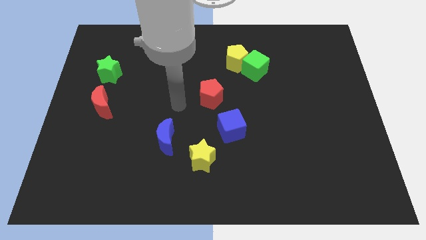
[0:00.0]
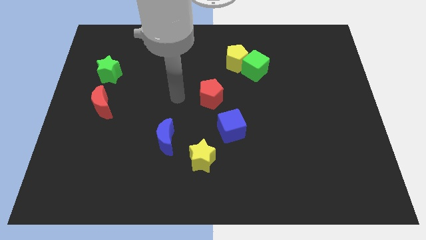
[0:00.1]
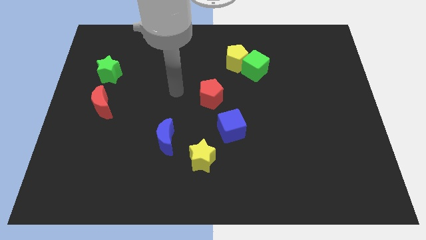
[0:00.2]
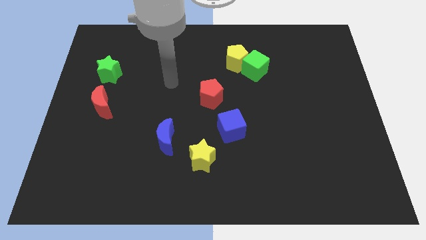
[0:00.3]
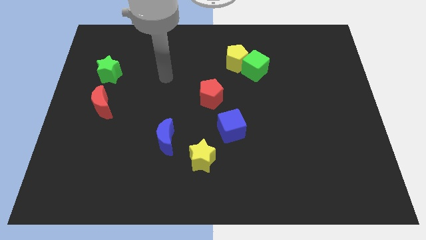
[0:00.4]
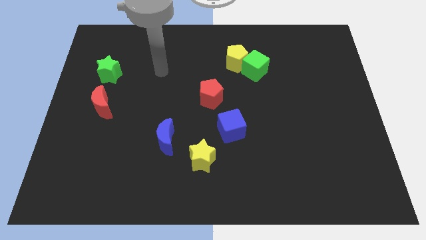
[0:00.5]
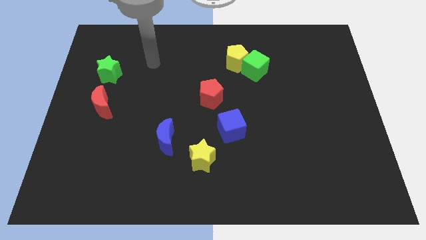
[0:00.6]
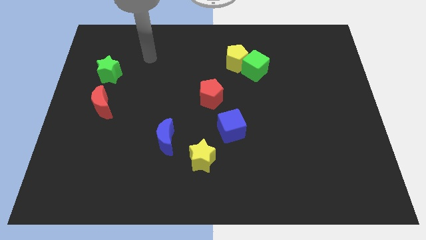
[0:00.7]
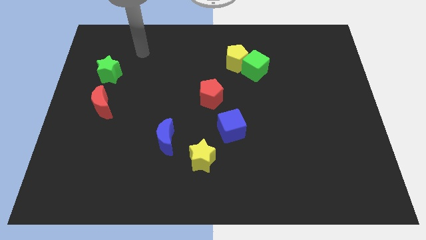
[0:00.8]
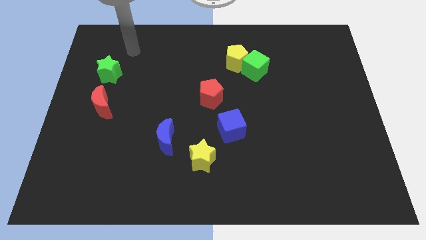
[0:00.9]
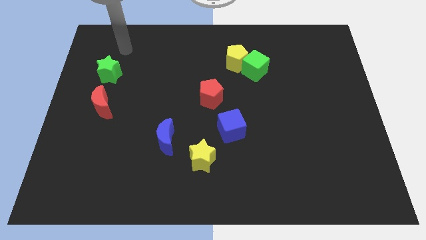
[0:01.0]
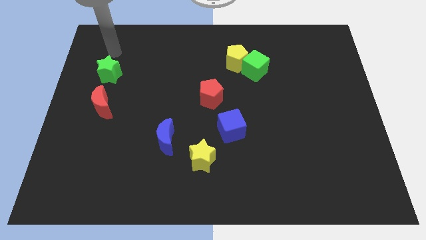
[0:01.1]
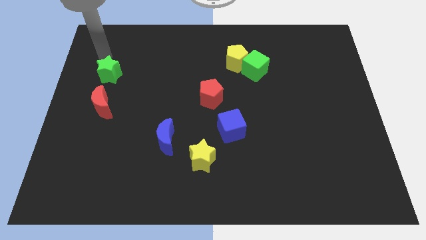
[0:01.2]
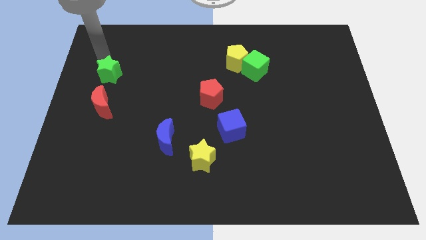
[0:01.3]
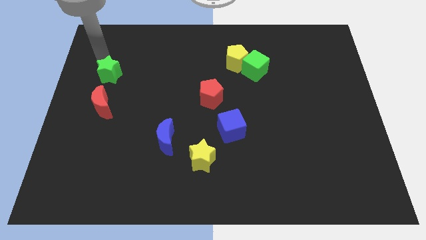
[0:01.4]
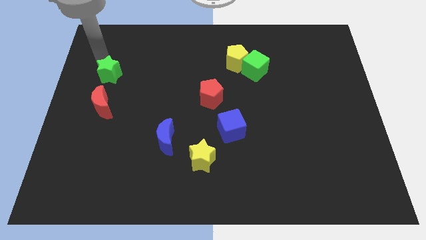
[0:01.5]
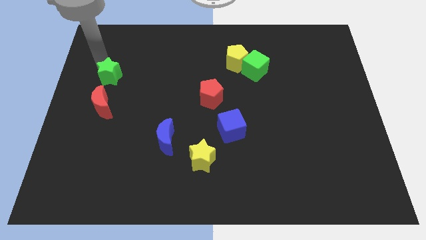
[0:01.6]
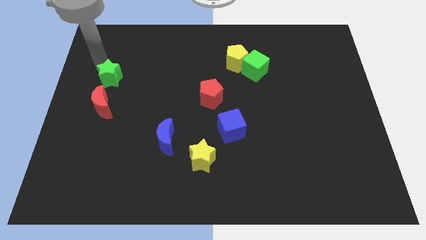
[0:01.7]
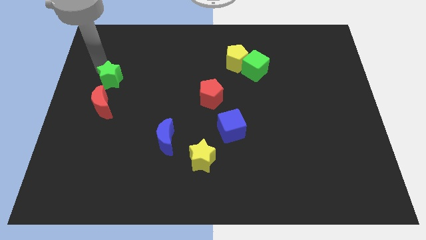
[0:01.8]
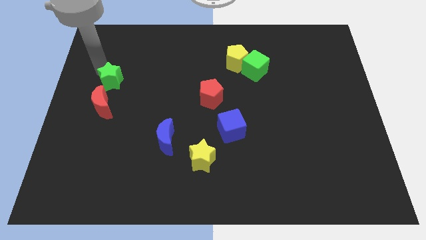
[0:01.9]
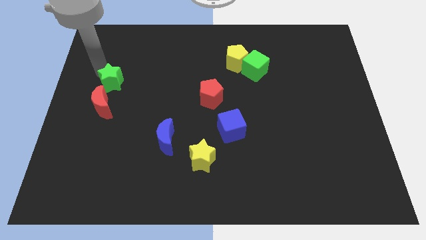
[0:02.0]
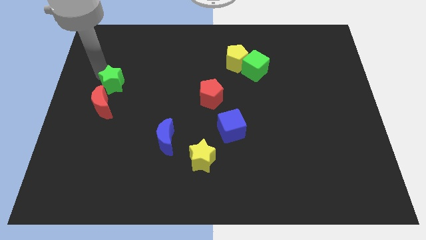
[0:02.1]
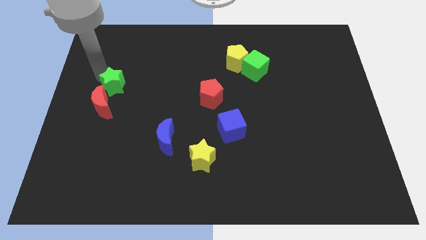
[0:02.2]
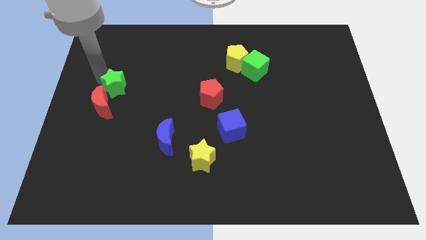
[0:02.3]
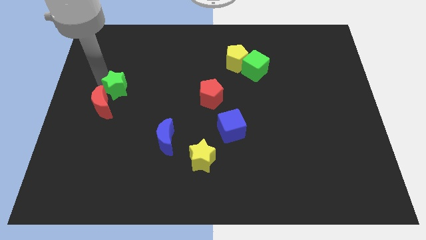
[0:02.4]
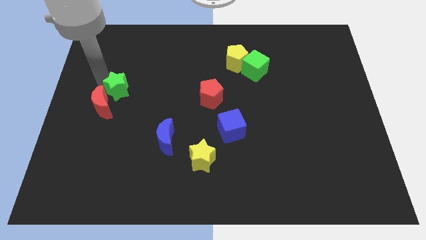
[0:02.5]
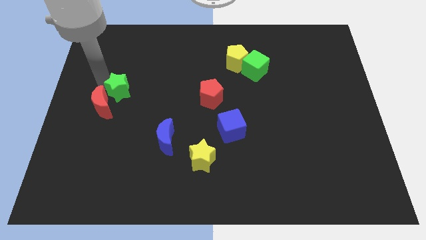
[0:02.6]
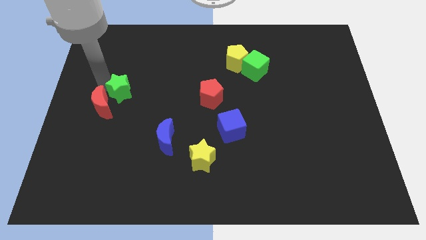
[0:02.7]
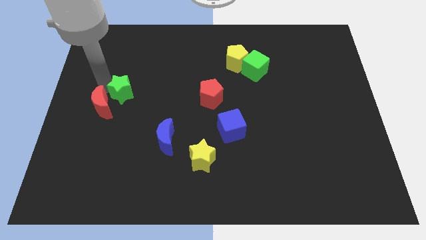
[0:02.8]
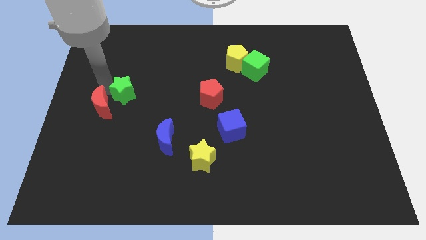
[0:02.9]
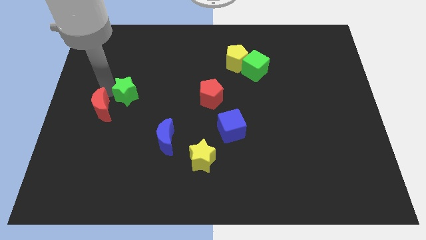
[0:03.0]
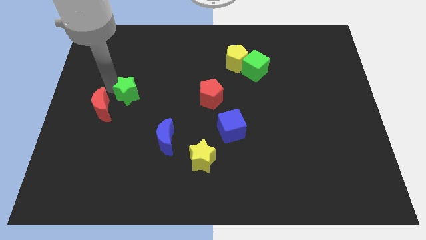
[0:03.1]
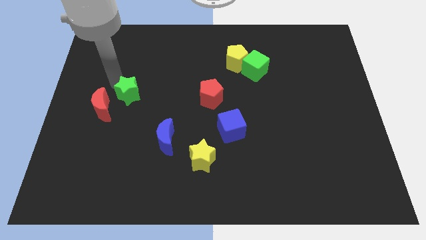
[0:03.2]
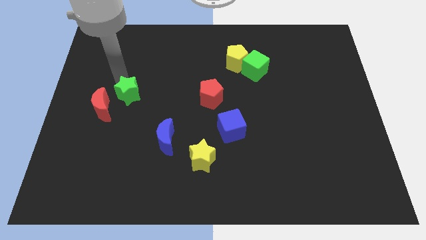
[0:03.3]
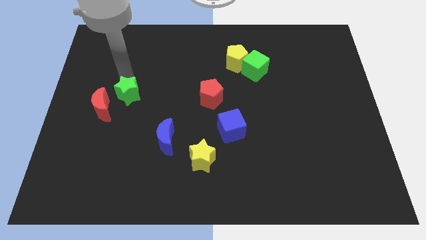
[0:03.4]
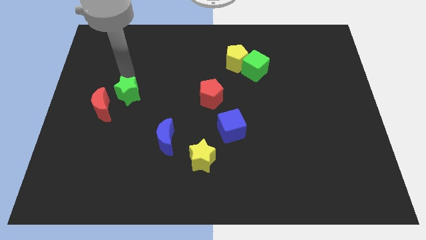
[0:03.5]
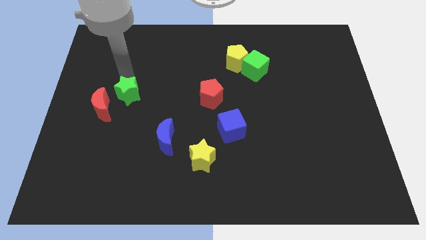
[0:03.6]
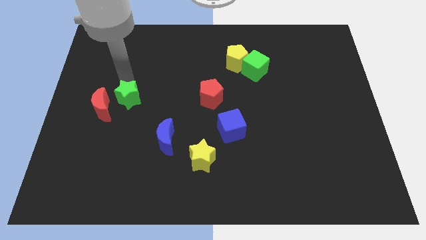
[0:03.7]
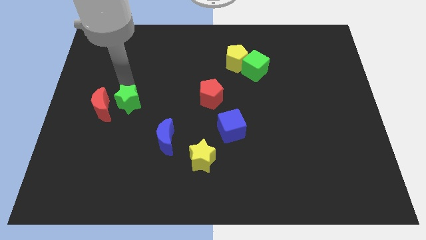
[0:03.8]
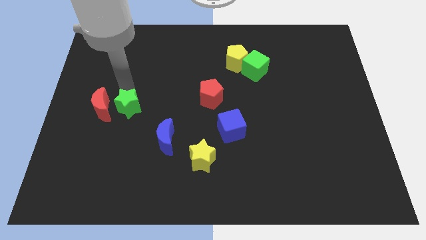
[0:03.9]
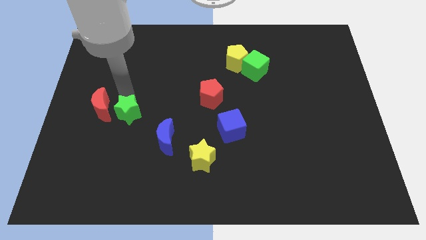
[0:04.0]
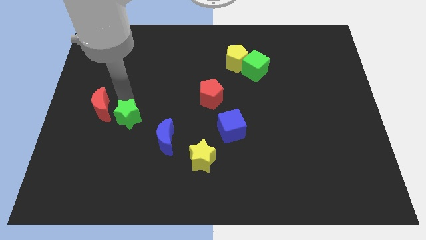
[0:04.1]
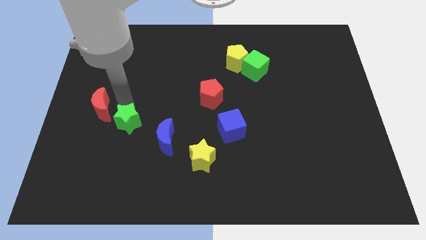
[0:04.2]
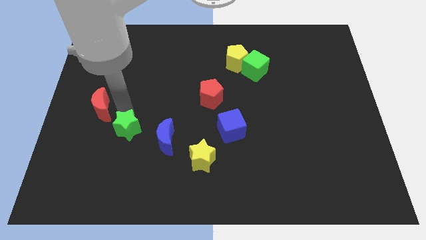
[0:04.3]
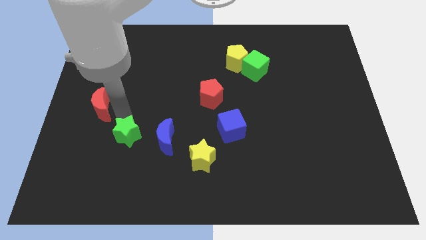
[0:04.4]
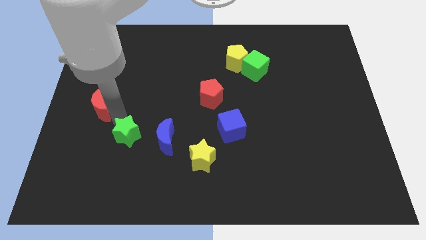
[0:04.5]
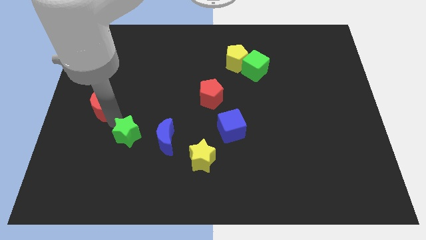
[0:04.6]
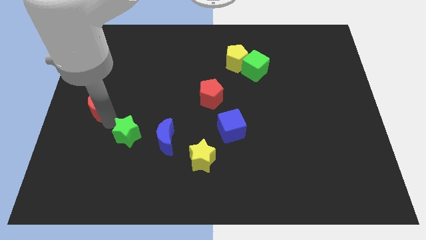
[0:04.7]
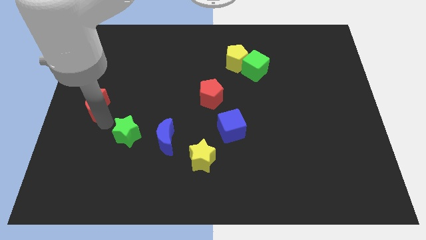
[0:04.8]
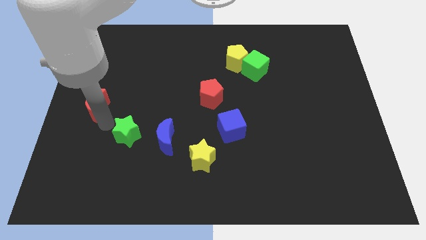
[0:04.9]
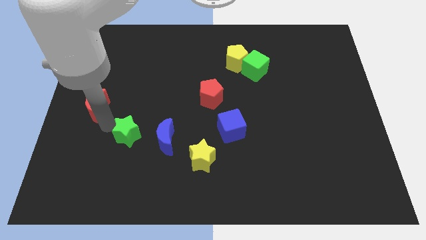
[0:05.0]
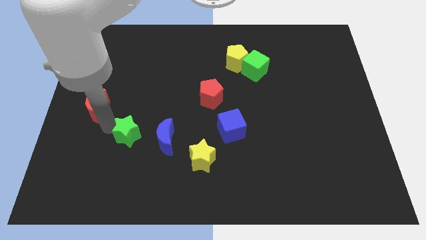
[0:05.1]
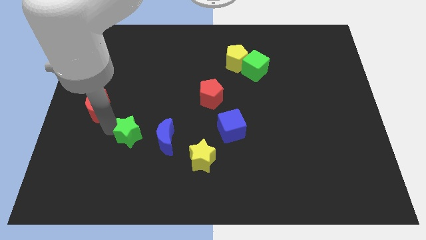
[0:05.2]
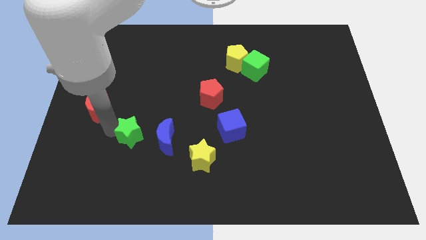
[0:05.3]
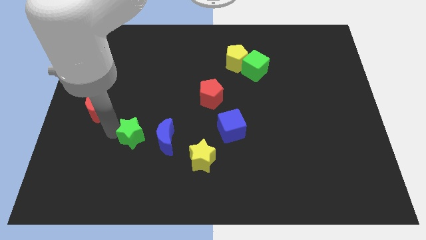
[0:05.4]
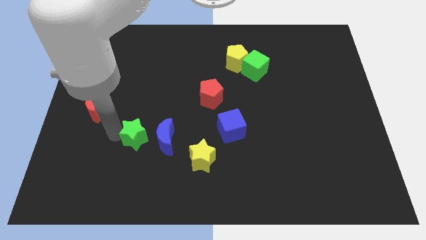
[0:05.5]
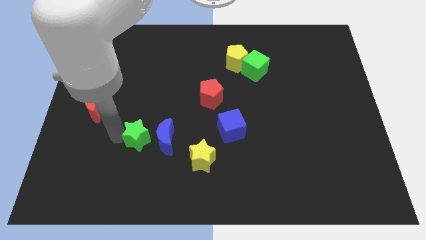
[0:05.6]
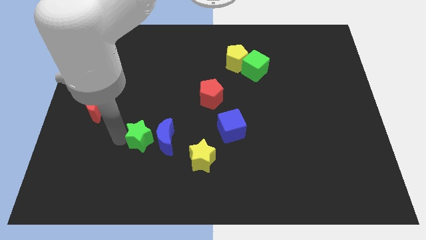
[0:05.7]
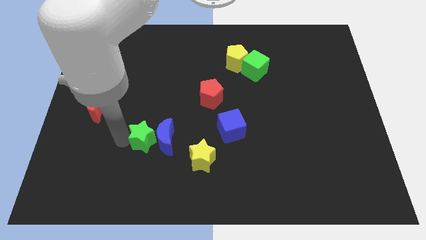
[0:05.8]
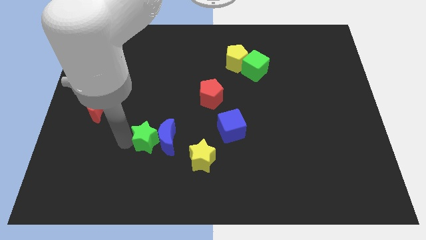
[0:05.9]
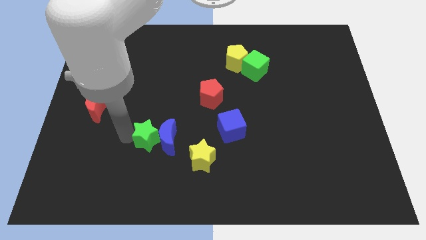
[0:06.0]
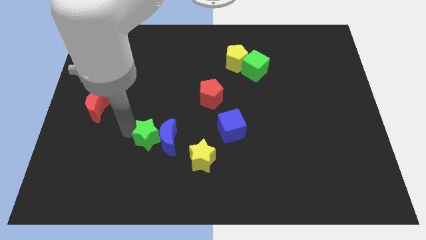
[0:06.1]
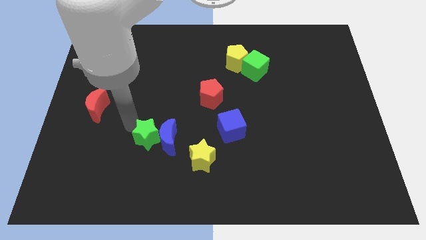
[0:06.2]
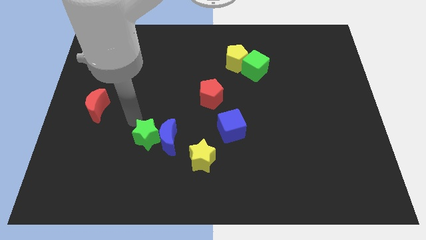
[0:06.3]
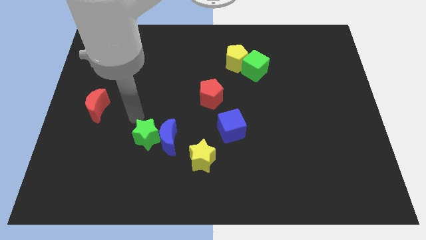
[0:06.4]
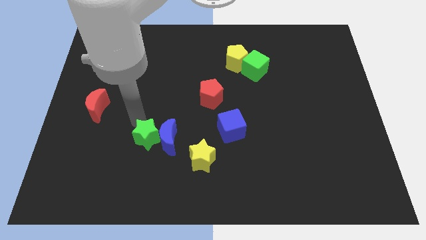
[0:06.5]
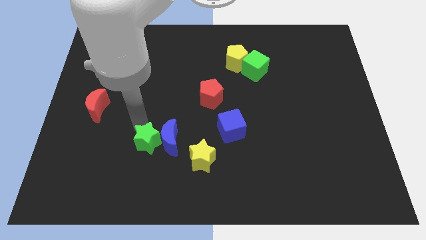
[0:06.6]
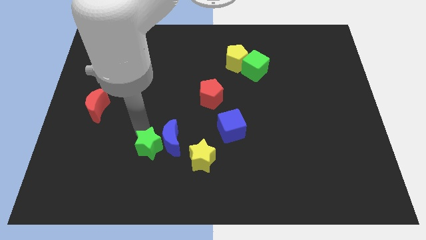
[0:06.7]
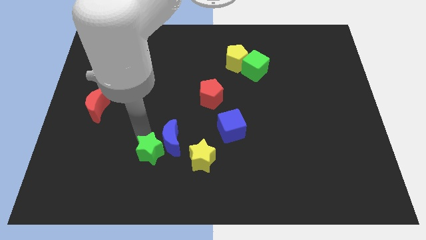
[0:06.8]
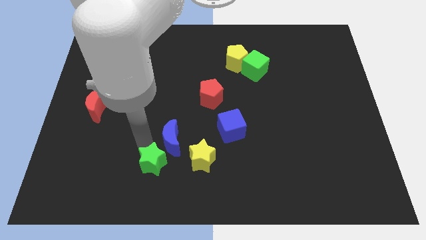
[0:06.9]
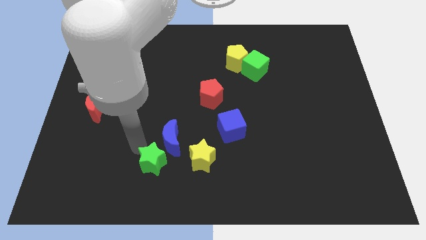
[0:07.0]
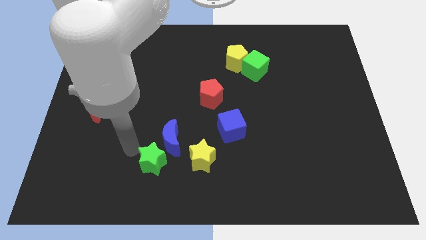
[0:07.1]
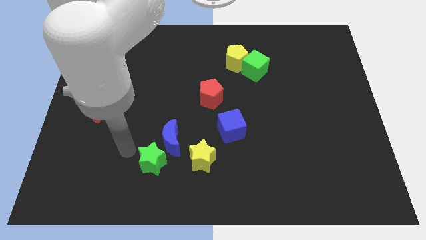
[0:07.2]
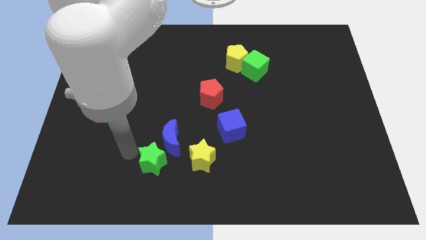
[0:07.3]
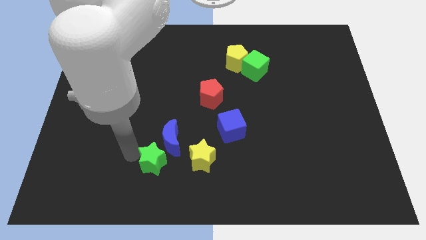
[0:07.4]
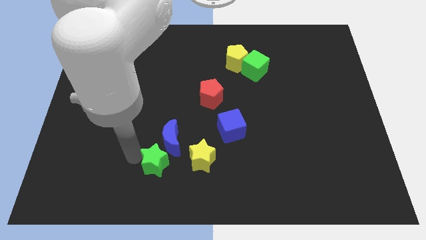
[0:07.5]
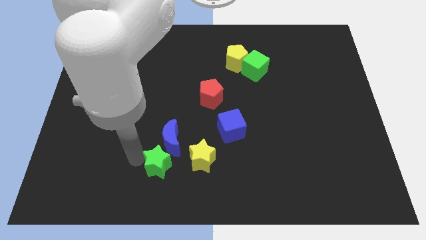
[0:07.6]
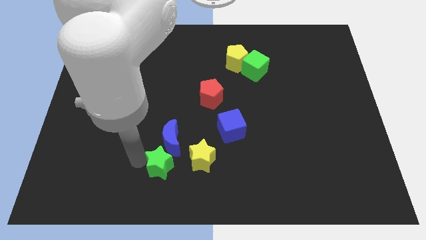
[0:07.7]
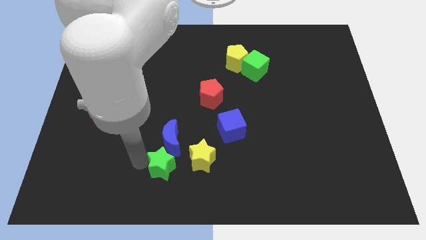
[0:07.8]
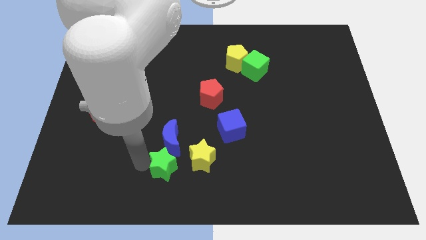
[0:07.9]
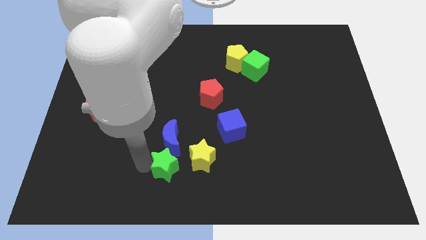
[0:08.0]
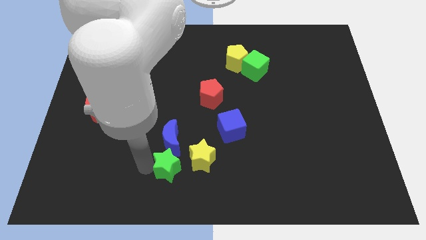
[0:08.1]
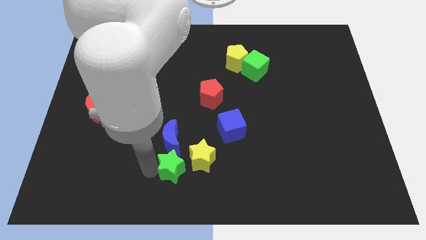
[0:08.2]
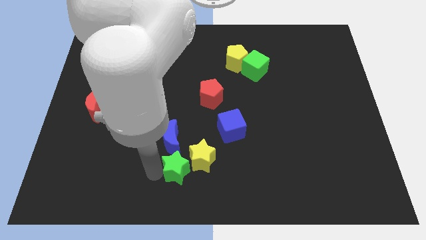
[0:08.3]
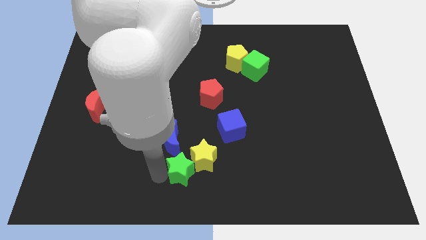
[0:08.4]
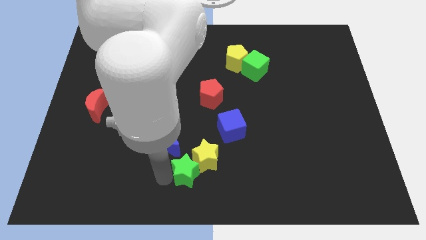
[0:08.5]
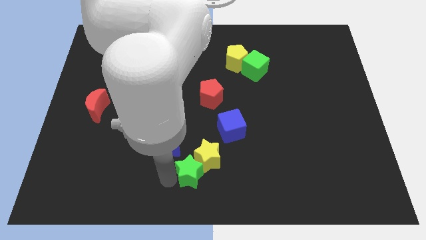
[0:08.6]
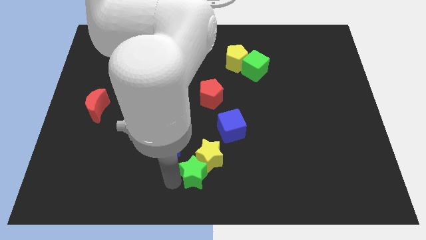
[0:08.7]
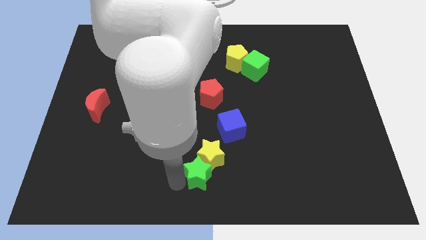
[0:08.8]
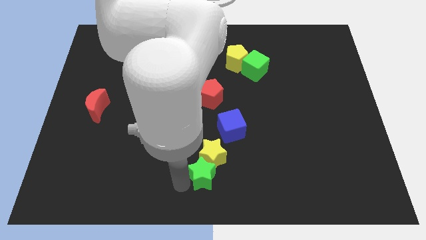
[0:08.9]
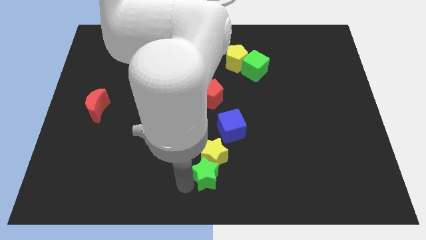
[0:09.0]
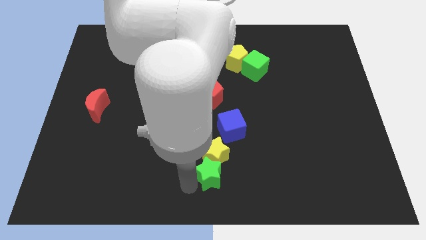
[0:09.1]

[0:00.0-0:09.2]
put the green star to the bottom right side of the yellow star
